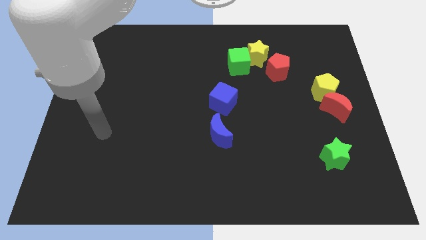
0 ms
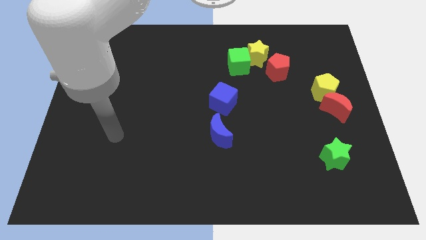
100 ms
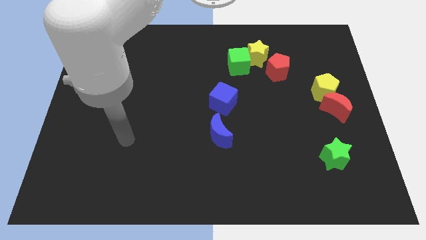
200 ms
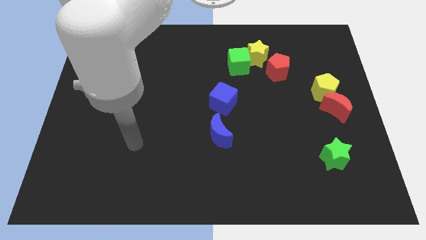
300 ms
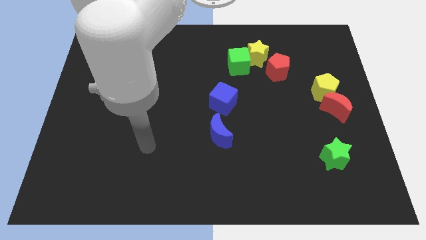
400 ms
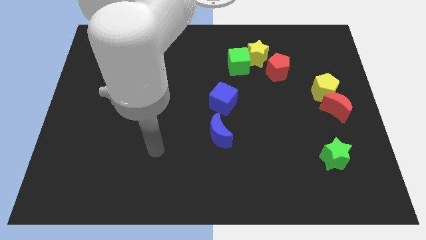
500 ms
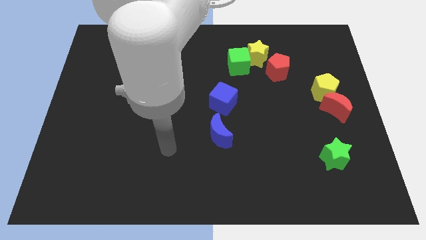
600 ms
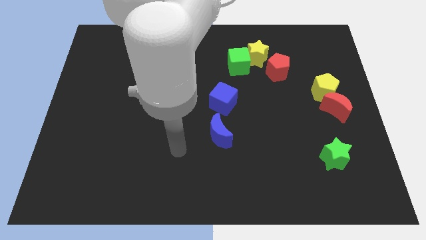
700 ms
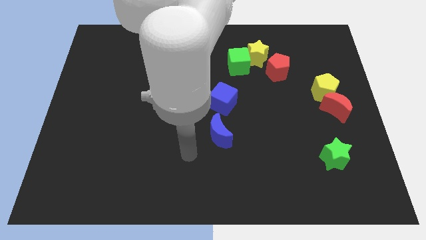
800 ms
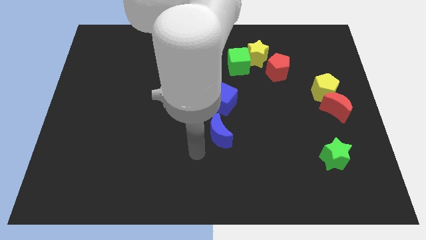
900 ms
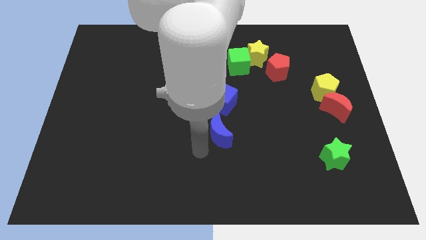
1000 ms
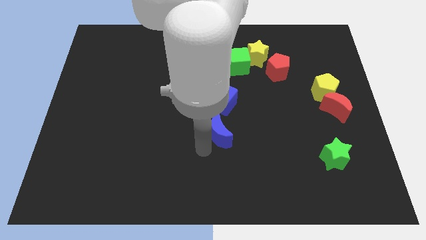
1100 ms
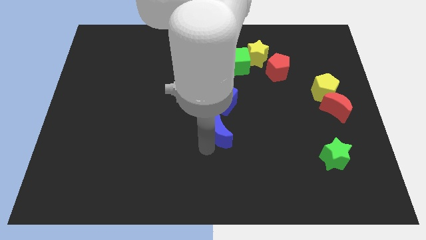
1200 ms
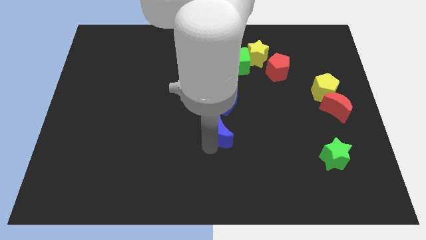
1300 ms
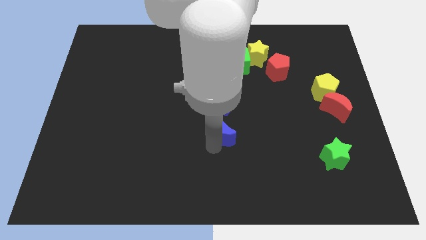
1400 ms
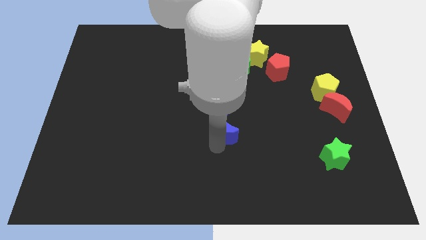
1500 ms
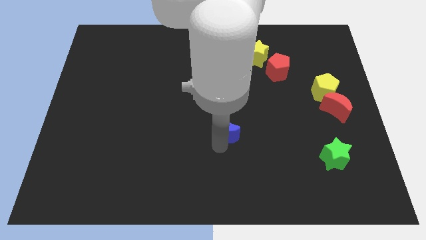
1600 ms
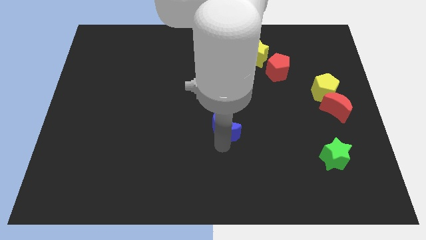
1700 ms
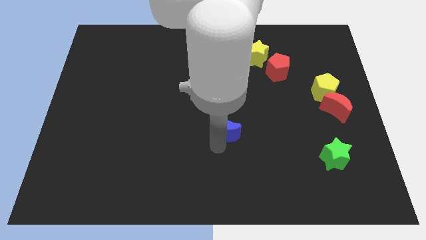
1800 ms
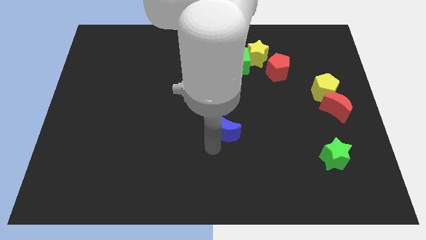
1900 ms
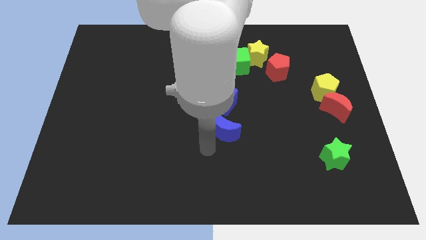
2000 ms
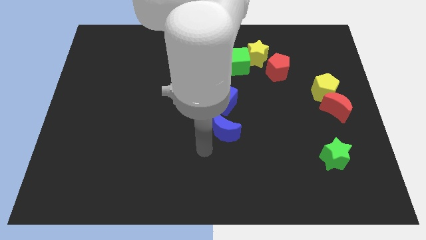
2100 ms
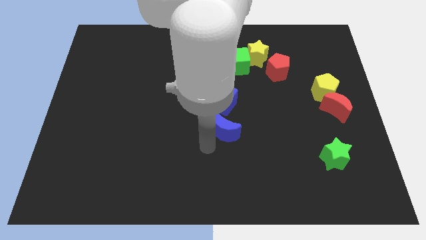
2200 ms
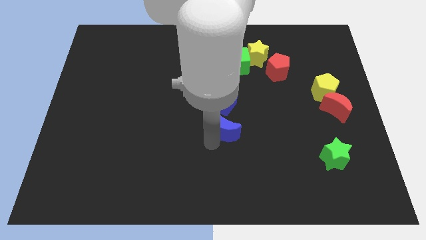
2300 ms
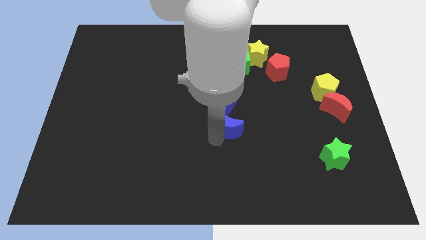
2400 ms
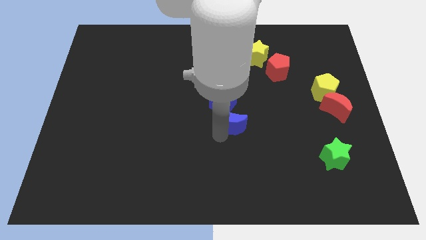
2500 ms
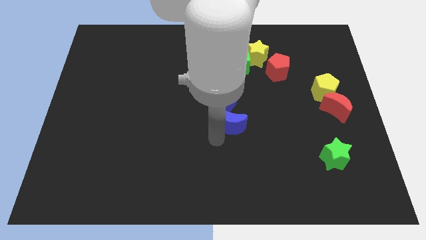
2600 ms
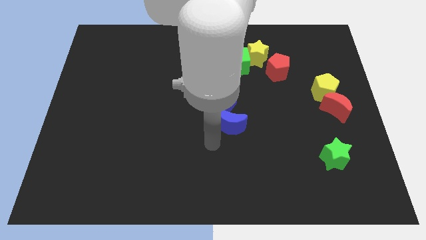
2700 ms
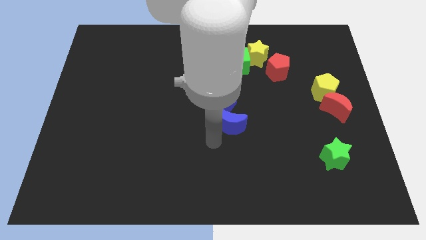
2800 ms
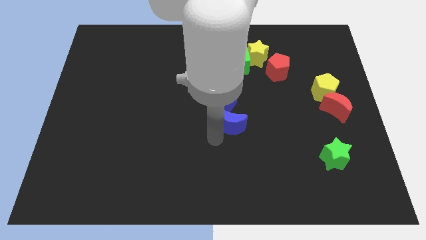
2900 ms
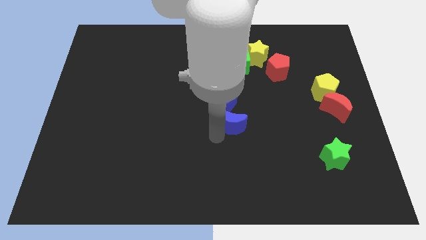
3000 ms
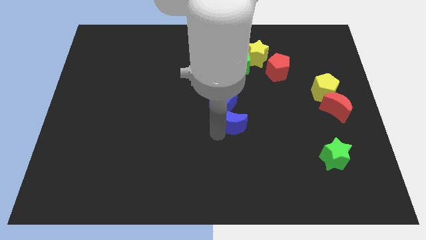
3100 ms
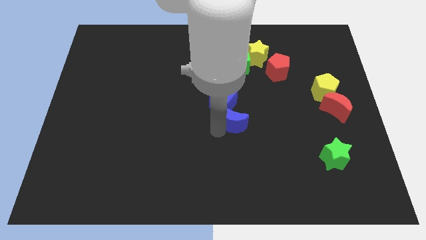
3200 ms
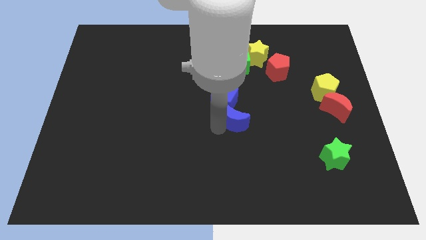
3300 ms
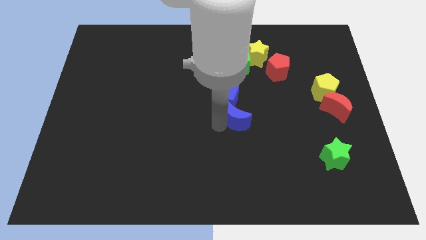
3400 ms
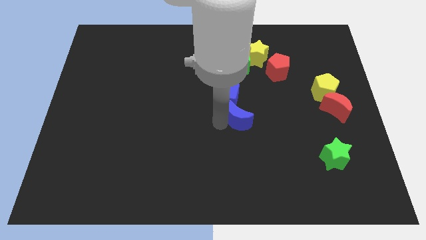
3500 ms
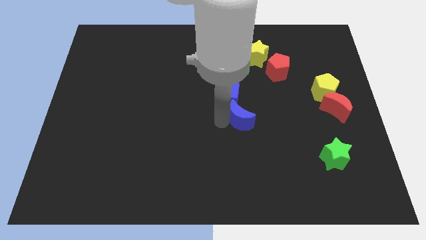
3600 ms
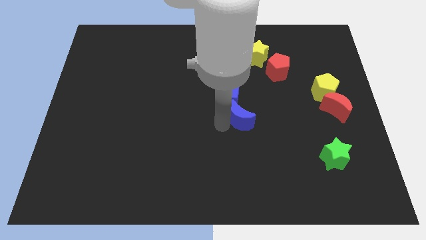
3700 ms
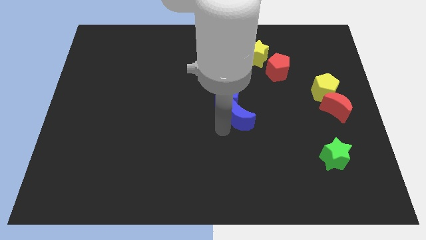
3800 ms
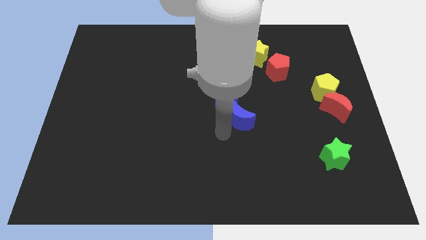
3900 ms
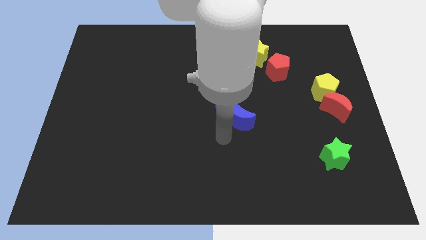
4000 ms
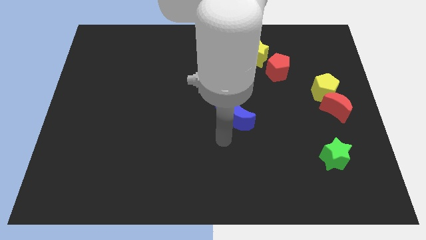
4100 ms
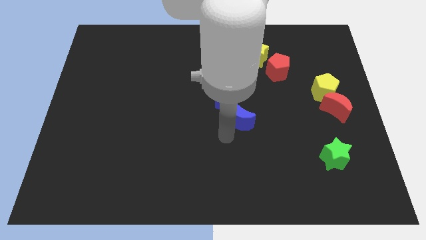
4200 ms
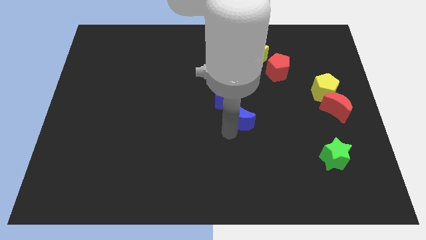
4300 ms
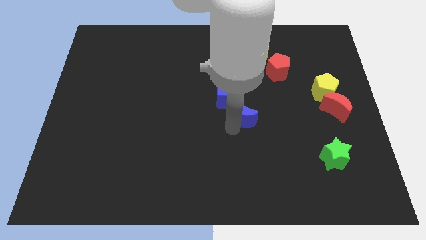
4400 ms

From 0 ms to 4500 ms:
move the blue moon slightly up and to the right

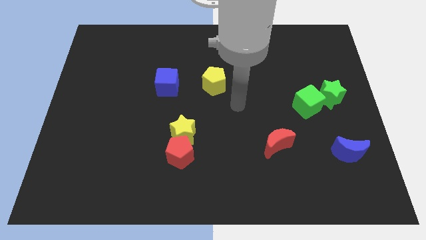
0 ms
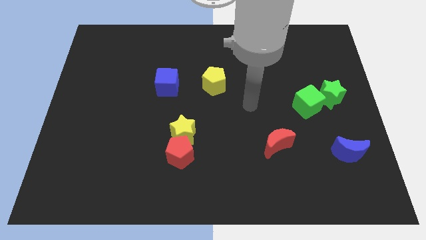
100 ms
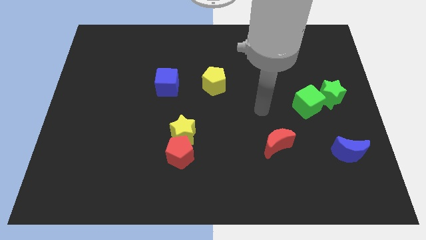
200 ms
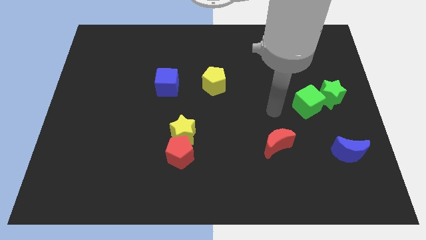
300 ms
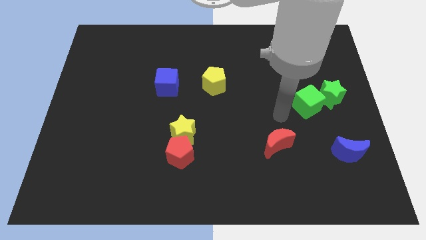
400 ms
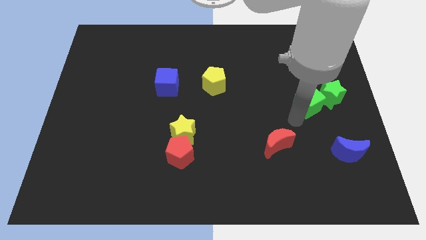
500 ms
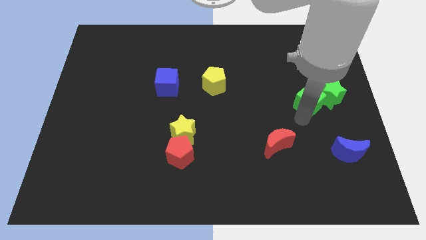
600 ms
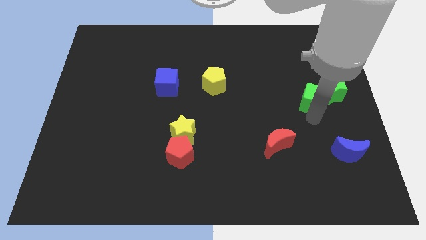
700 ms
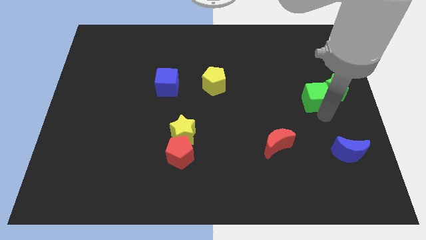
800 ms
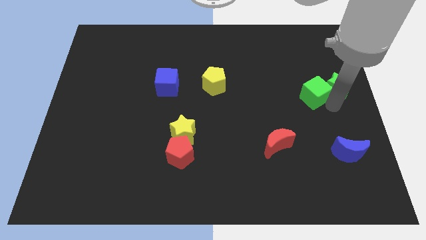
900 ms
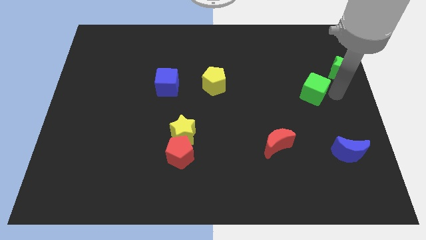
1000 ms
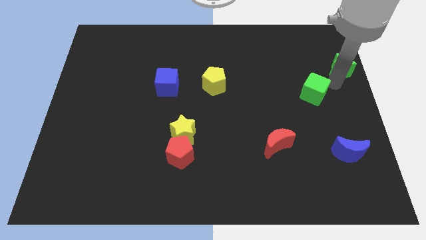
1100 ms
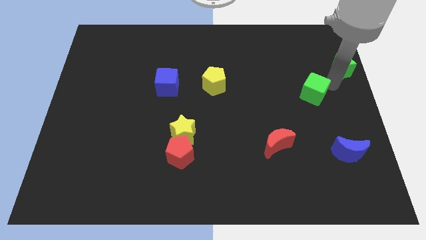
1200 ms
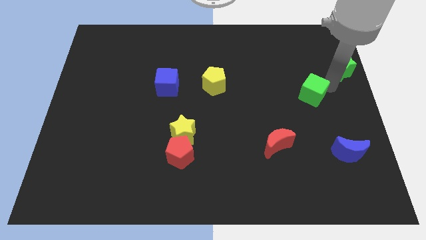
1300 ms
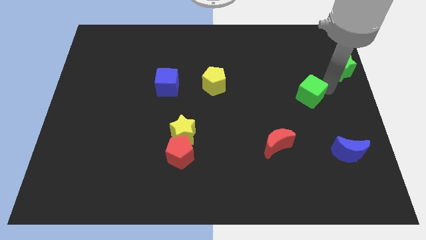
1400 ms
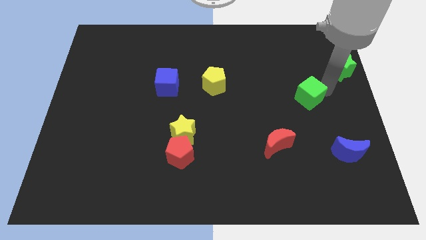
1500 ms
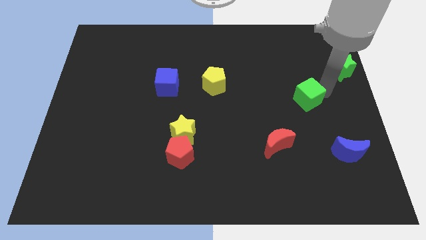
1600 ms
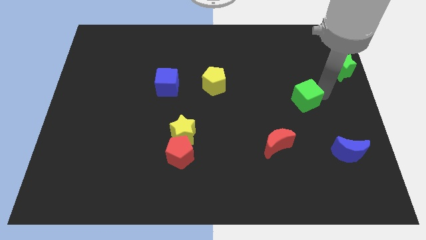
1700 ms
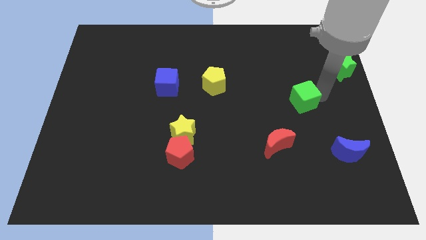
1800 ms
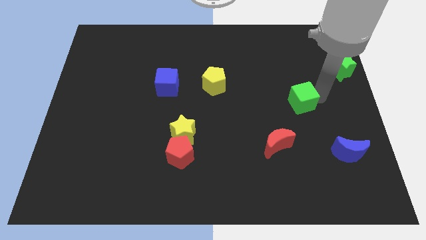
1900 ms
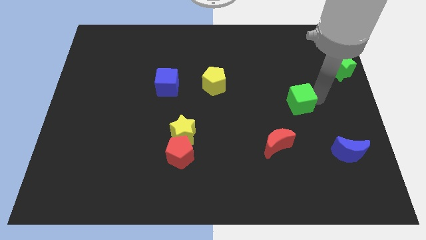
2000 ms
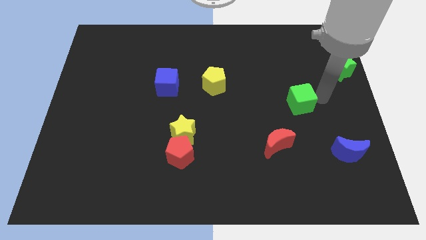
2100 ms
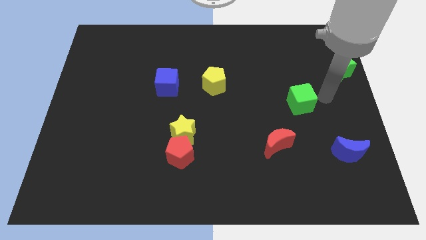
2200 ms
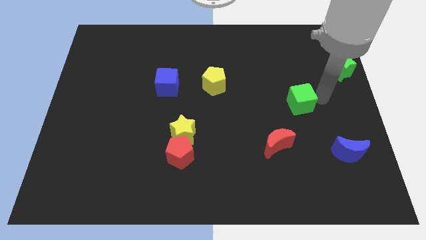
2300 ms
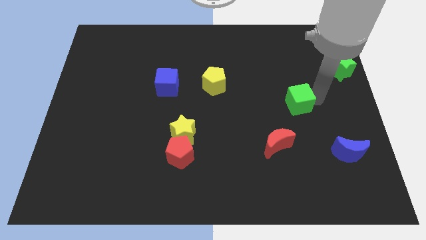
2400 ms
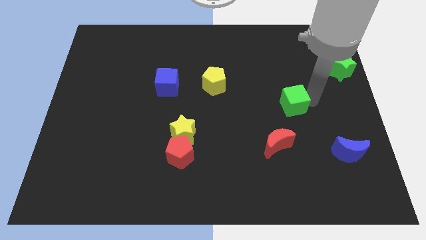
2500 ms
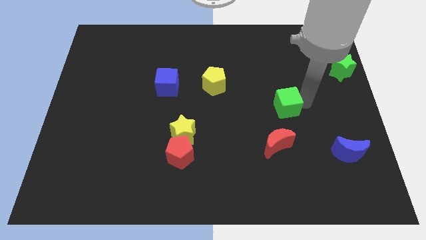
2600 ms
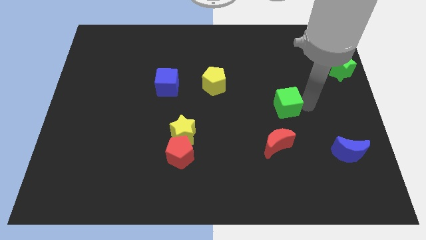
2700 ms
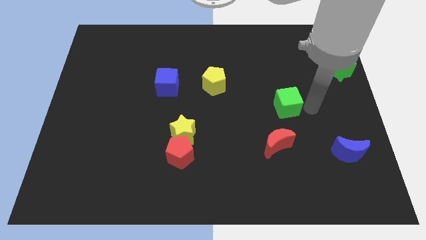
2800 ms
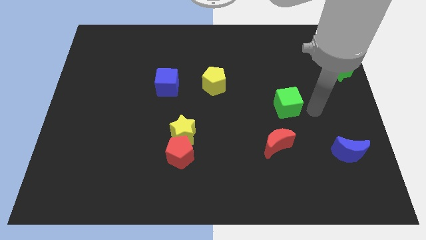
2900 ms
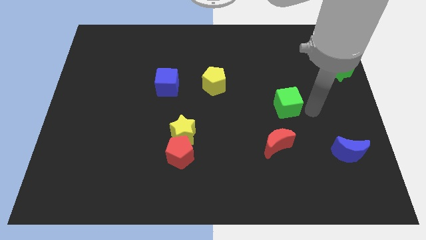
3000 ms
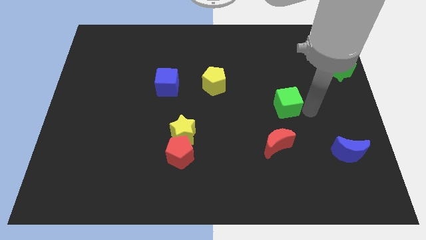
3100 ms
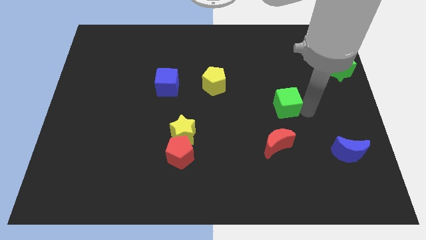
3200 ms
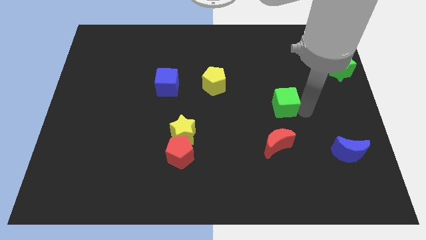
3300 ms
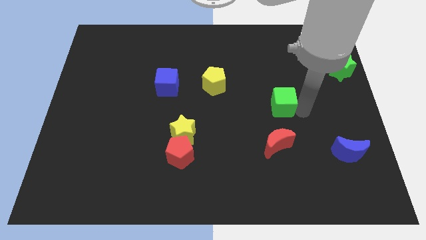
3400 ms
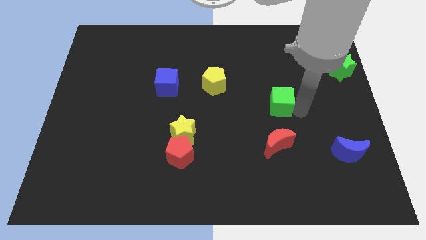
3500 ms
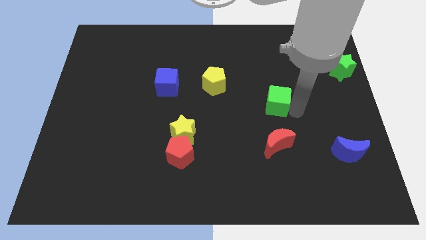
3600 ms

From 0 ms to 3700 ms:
slide the green cube to the left somewhat
